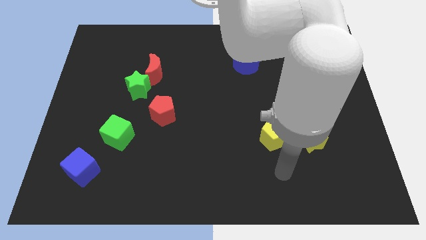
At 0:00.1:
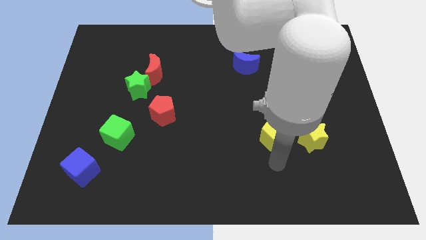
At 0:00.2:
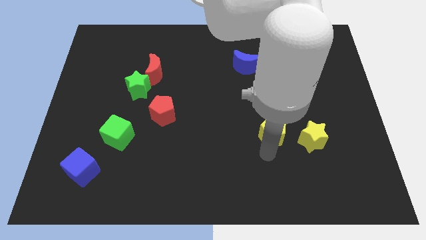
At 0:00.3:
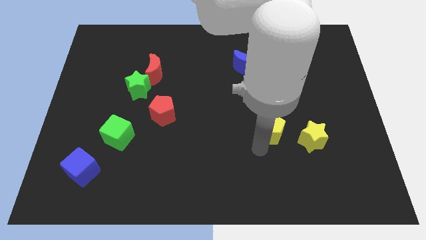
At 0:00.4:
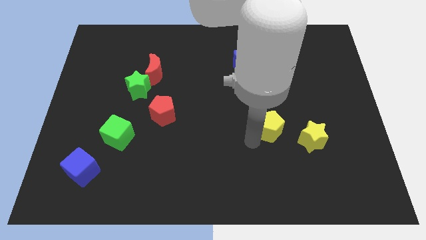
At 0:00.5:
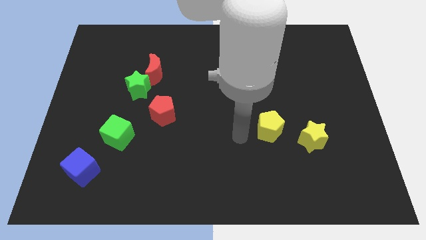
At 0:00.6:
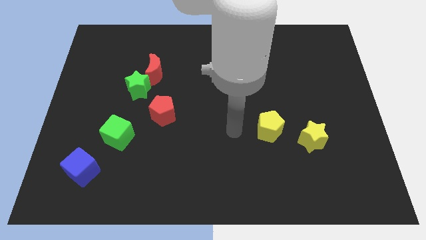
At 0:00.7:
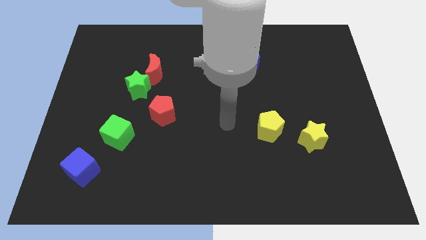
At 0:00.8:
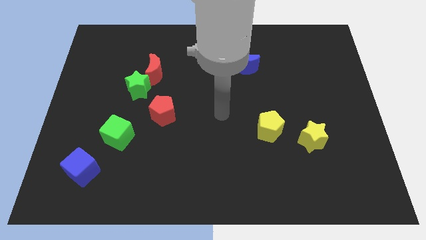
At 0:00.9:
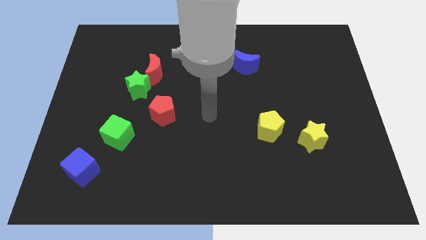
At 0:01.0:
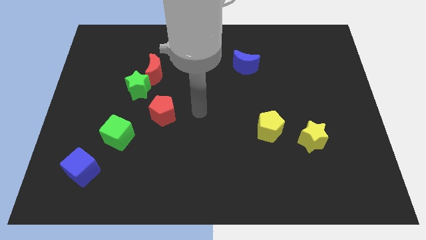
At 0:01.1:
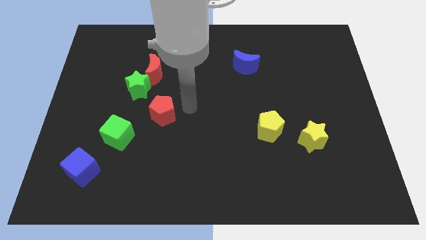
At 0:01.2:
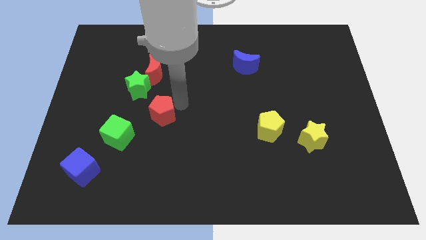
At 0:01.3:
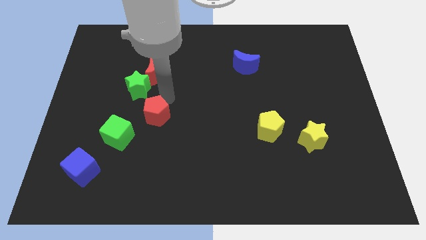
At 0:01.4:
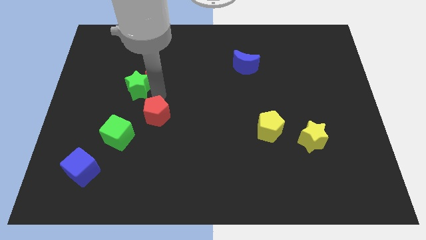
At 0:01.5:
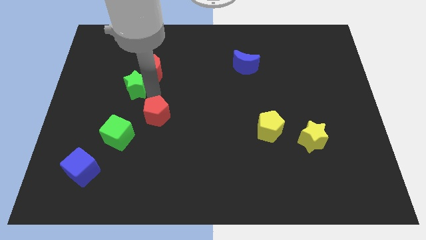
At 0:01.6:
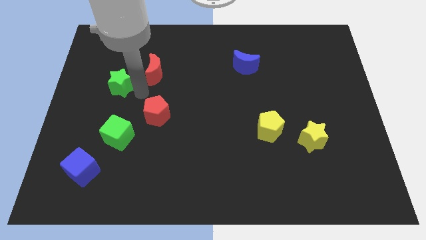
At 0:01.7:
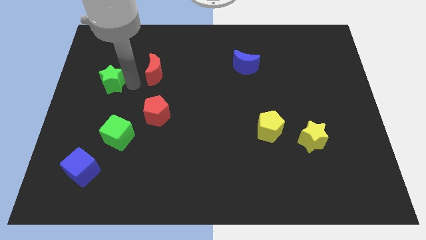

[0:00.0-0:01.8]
pull the red moon apart from the green star

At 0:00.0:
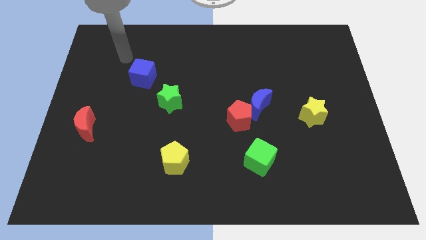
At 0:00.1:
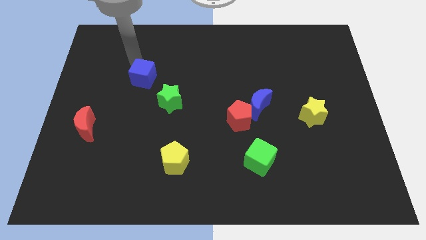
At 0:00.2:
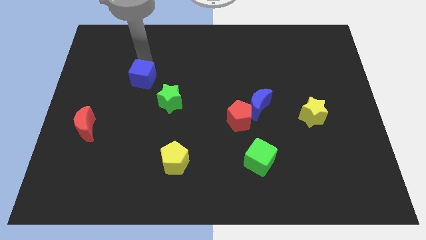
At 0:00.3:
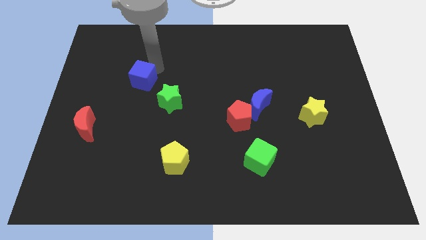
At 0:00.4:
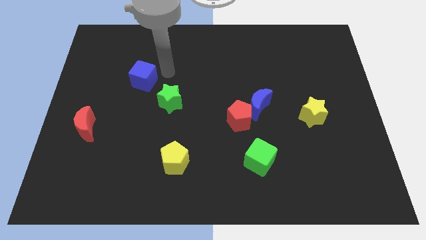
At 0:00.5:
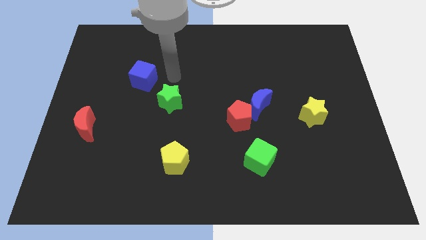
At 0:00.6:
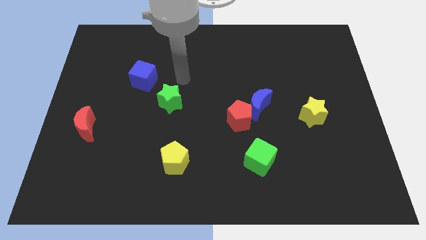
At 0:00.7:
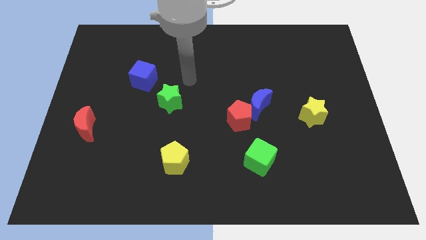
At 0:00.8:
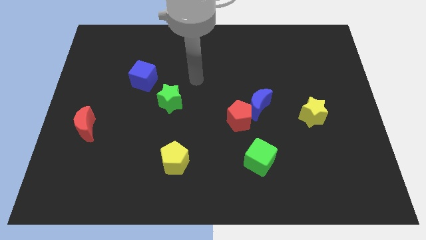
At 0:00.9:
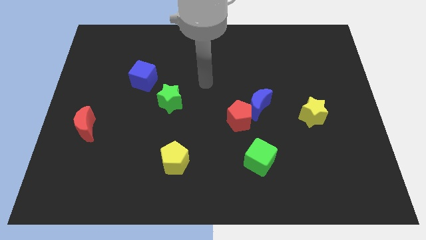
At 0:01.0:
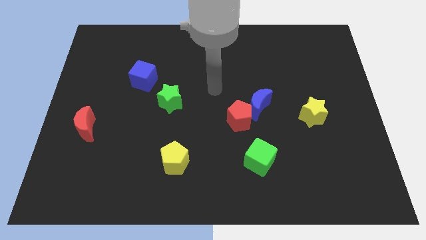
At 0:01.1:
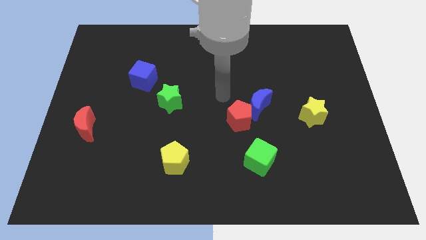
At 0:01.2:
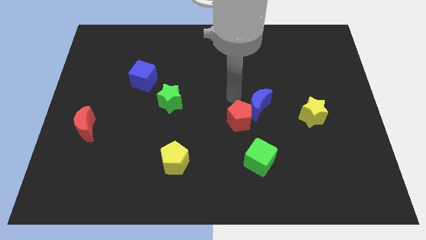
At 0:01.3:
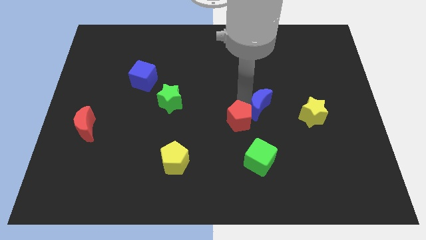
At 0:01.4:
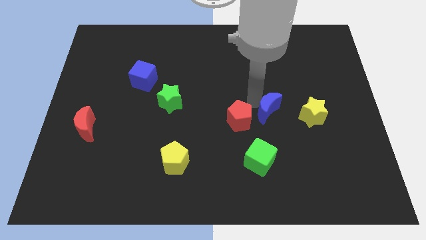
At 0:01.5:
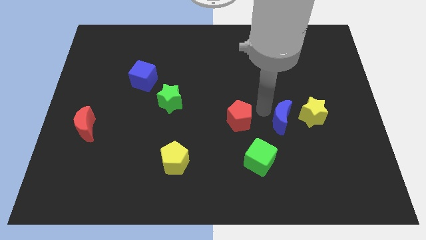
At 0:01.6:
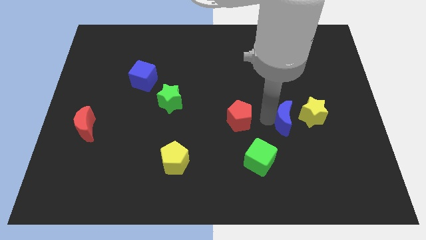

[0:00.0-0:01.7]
move the red pentagon away from the blue moon

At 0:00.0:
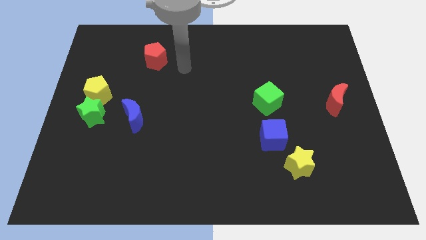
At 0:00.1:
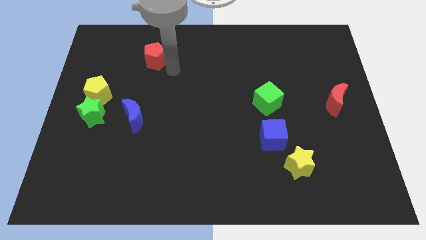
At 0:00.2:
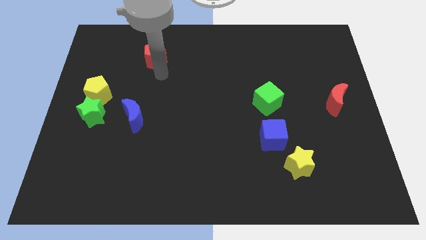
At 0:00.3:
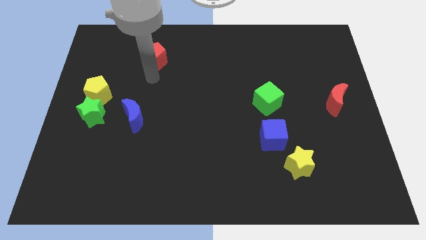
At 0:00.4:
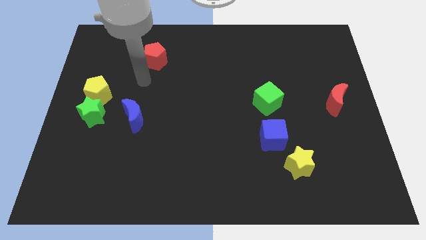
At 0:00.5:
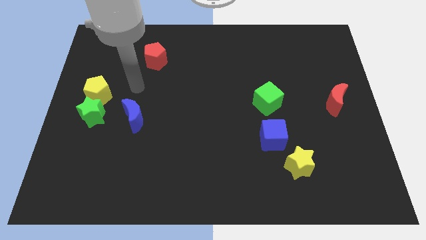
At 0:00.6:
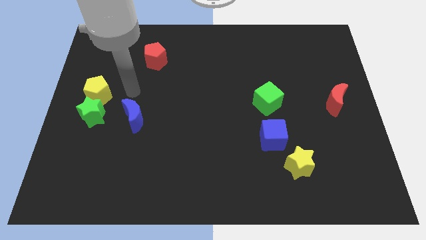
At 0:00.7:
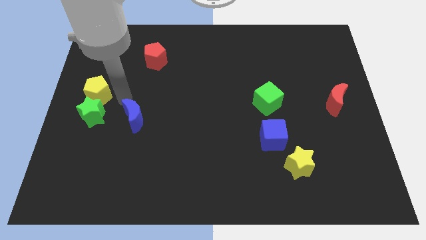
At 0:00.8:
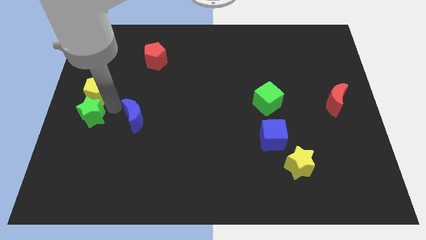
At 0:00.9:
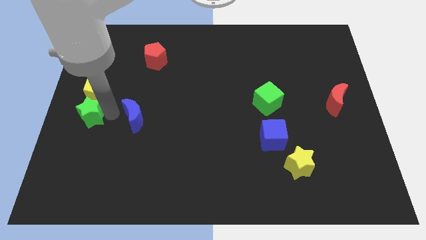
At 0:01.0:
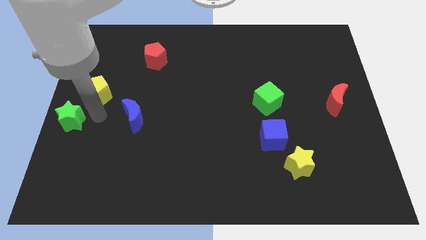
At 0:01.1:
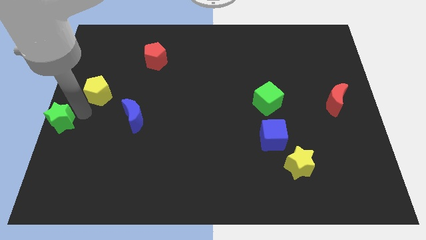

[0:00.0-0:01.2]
separate the yellow pentagon from the green star

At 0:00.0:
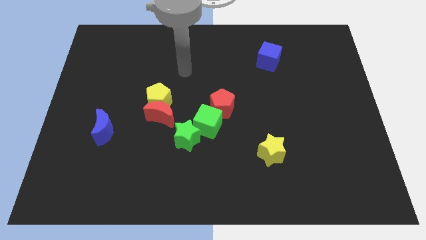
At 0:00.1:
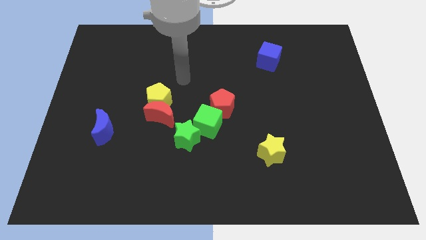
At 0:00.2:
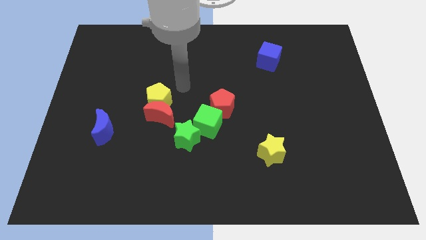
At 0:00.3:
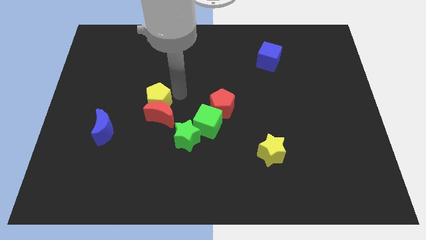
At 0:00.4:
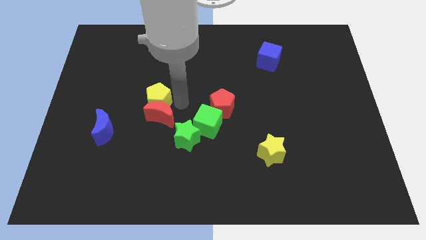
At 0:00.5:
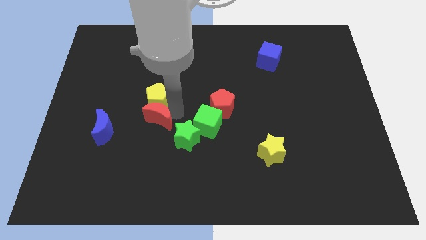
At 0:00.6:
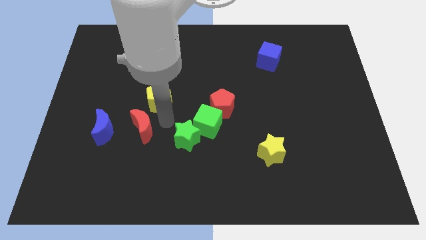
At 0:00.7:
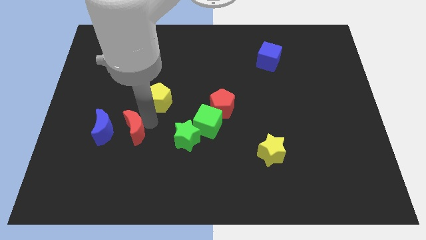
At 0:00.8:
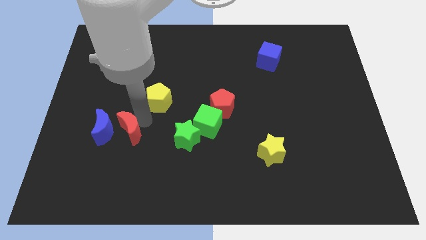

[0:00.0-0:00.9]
separate the yellow pentagon from the red moon

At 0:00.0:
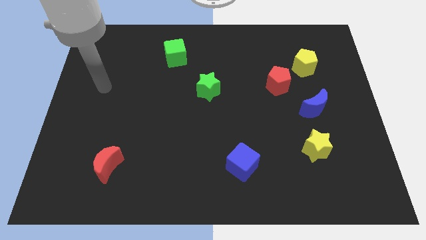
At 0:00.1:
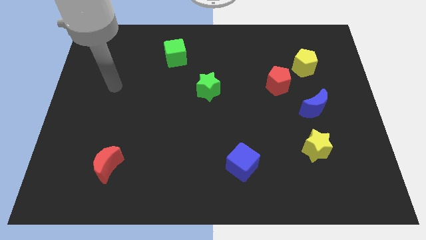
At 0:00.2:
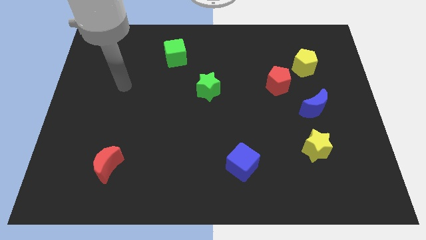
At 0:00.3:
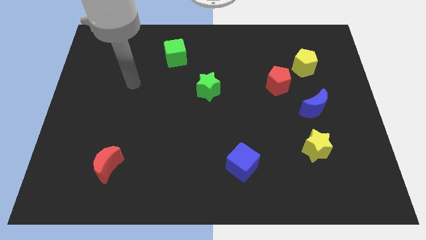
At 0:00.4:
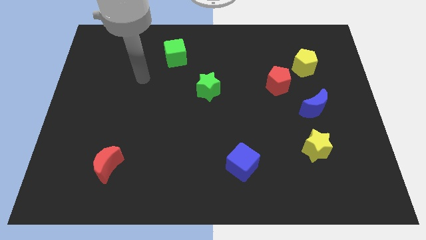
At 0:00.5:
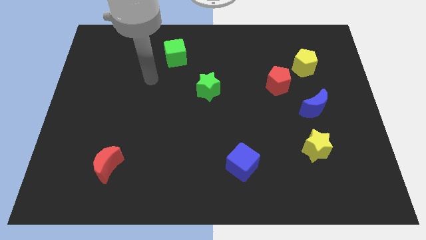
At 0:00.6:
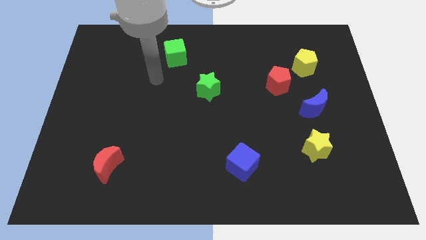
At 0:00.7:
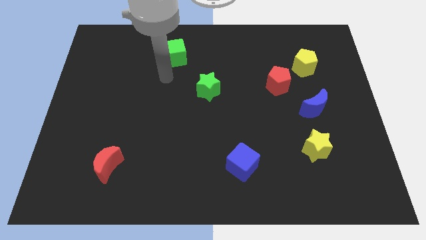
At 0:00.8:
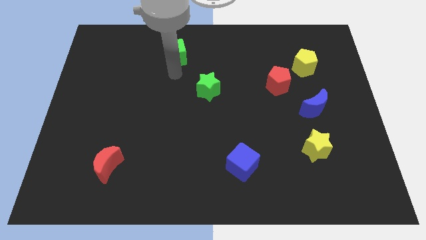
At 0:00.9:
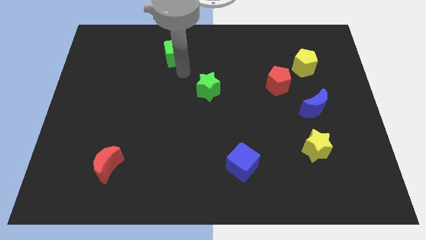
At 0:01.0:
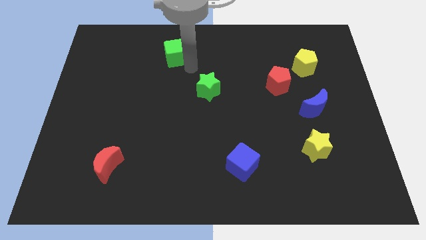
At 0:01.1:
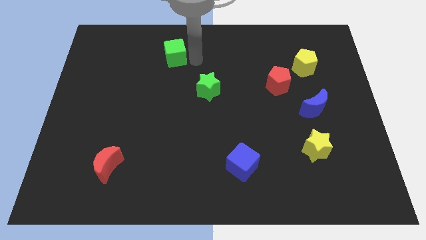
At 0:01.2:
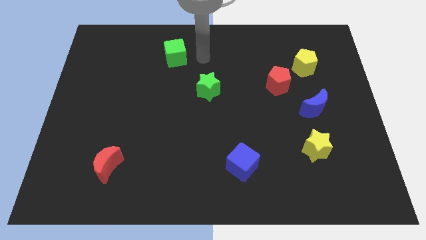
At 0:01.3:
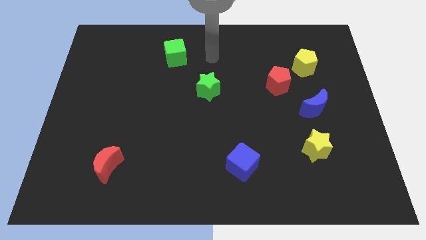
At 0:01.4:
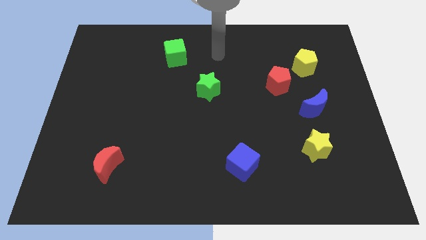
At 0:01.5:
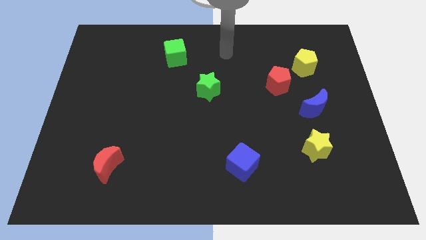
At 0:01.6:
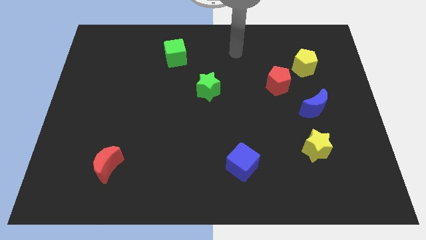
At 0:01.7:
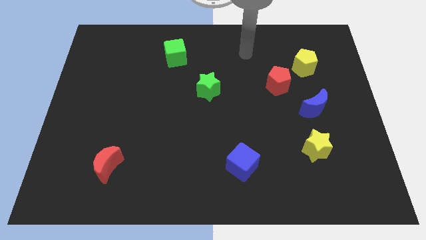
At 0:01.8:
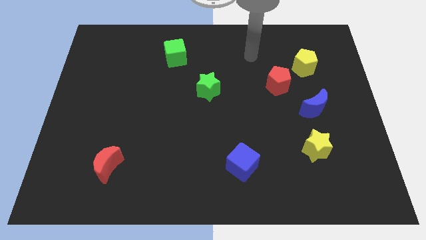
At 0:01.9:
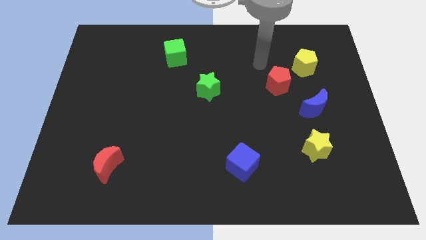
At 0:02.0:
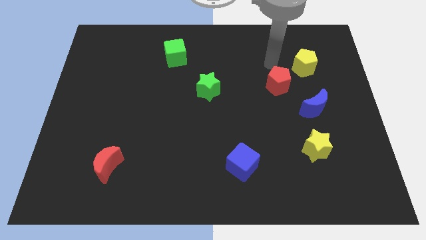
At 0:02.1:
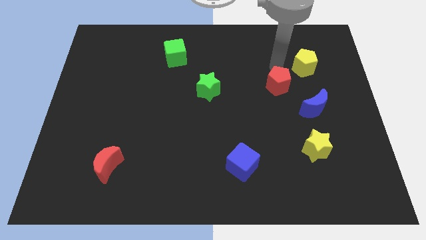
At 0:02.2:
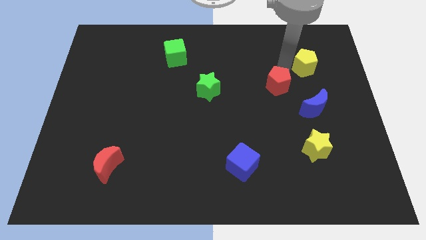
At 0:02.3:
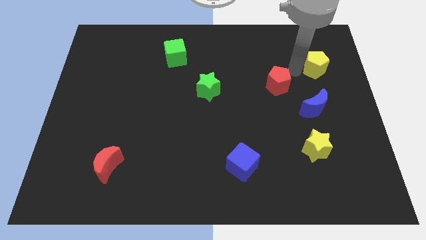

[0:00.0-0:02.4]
separate the red pentagon from the yellow pentagon

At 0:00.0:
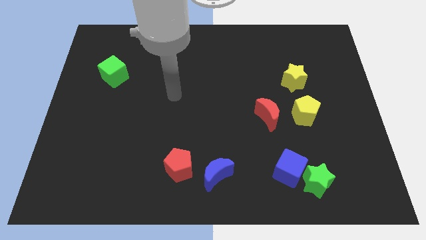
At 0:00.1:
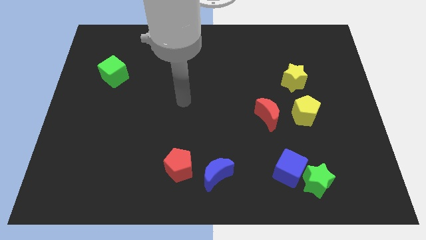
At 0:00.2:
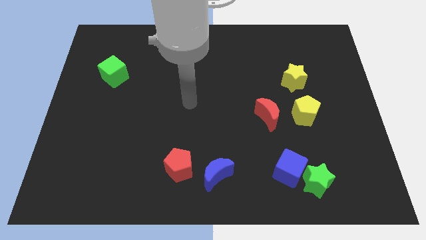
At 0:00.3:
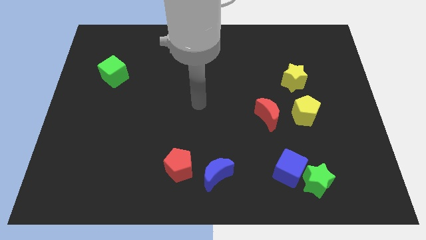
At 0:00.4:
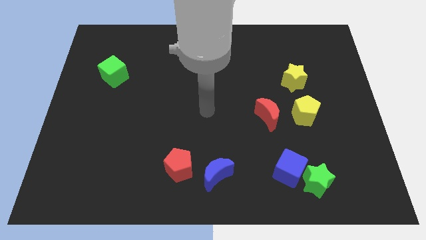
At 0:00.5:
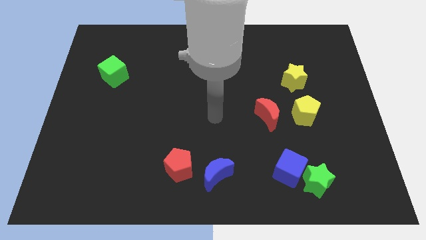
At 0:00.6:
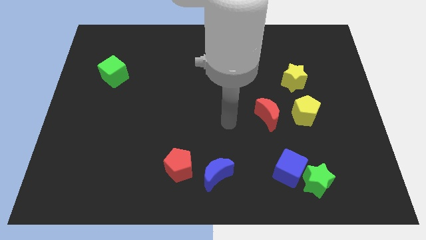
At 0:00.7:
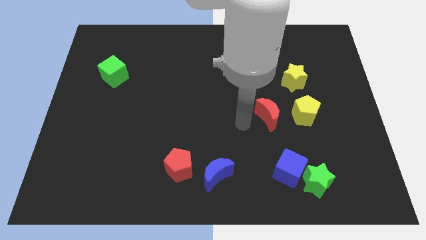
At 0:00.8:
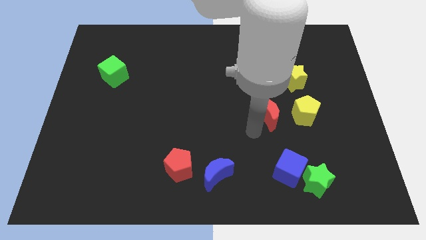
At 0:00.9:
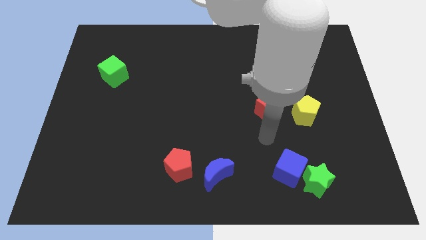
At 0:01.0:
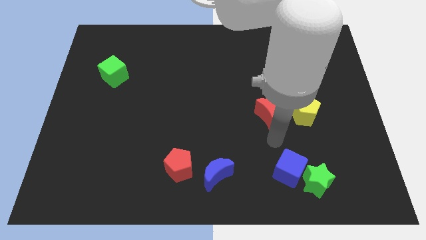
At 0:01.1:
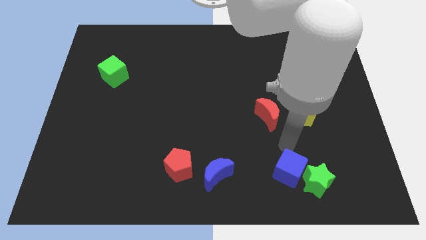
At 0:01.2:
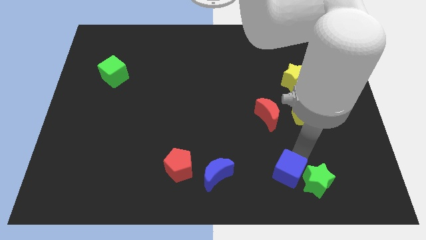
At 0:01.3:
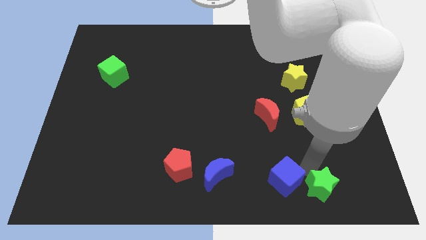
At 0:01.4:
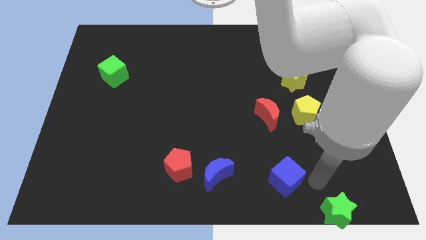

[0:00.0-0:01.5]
pull the blue cube apart from the green star
